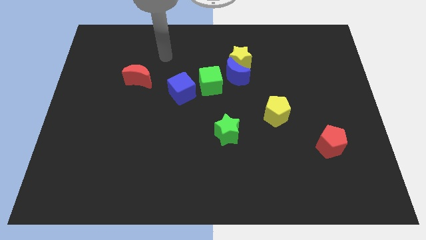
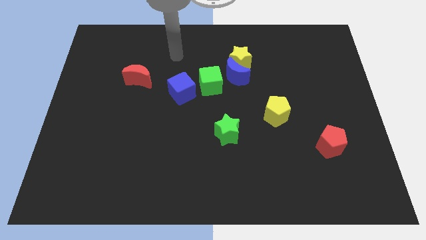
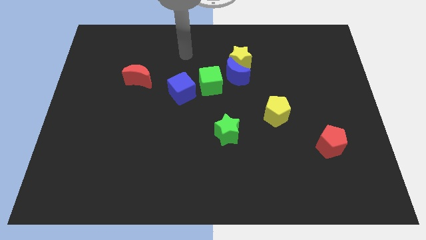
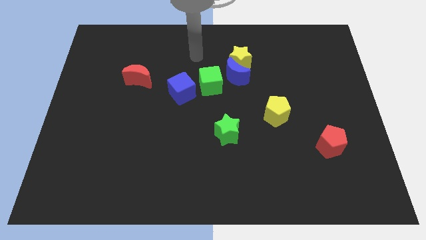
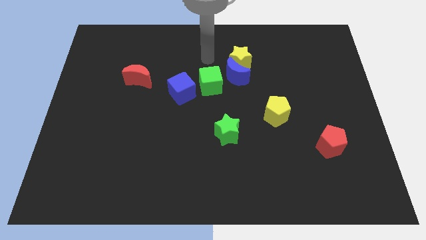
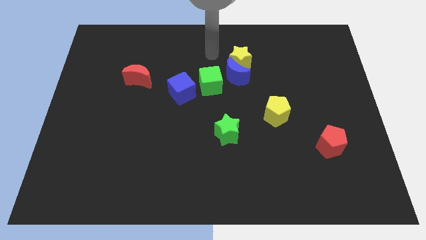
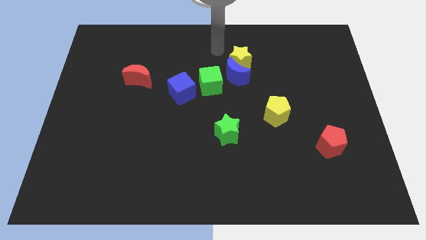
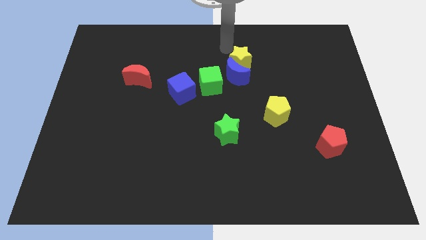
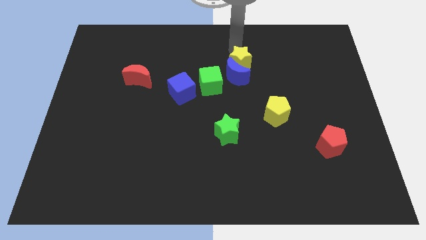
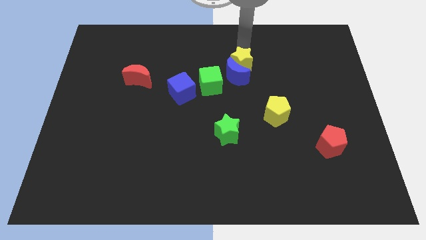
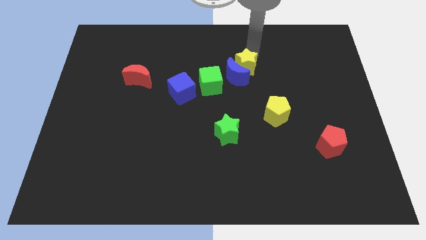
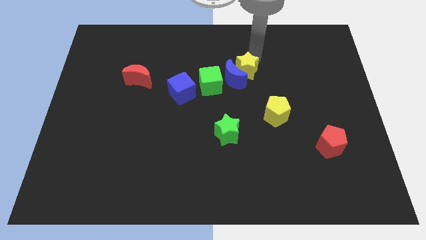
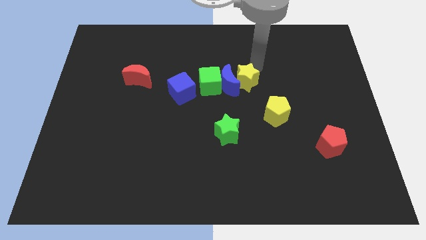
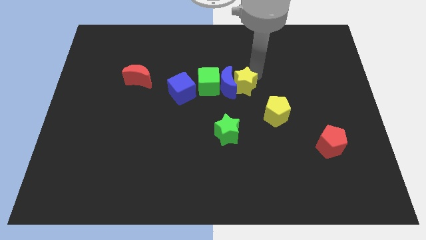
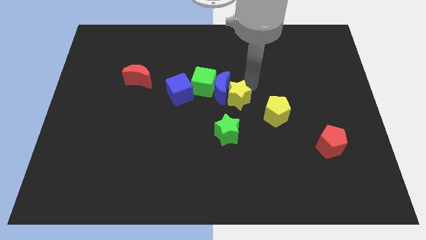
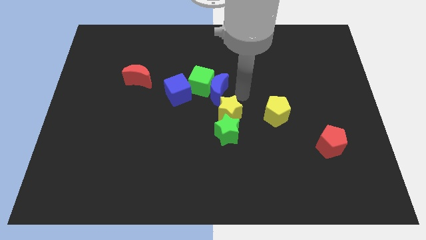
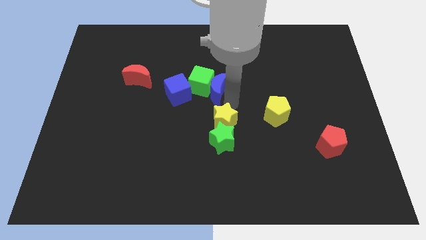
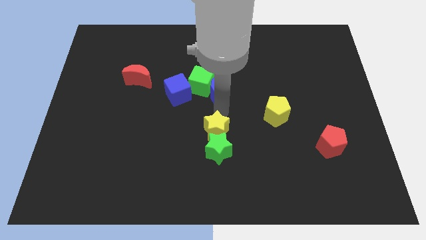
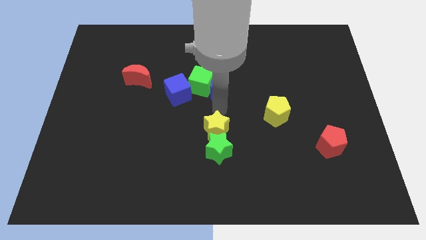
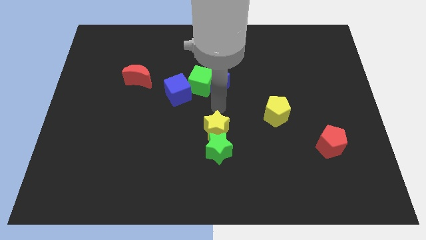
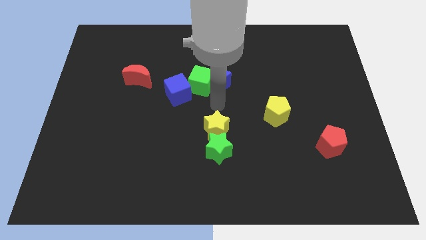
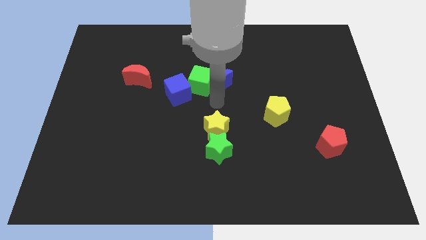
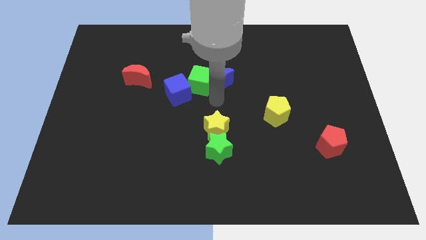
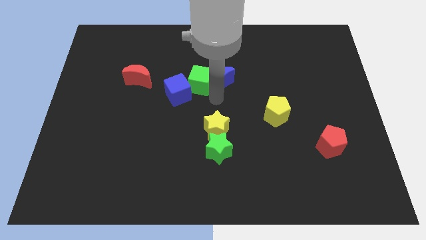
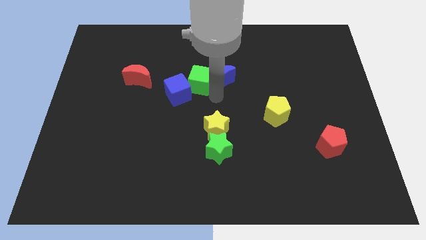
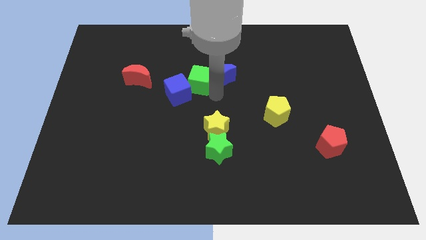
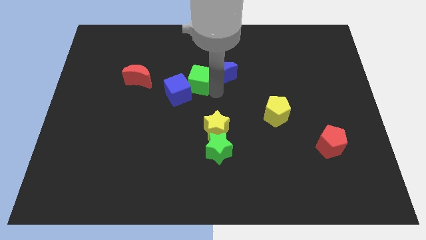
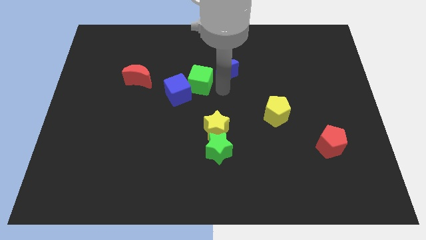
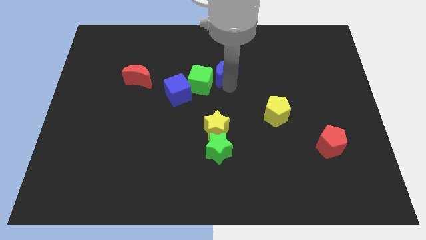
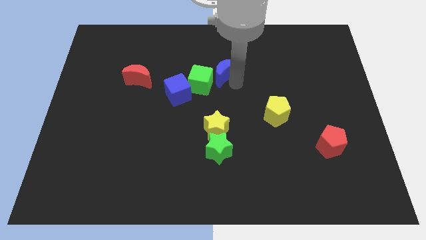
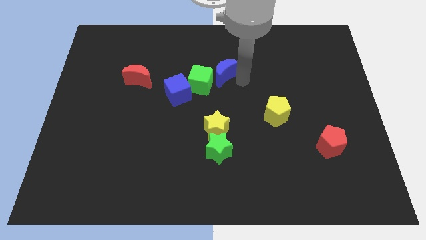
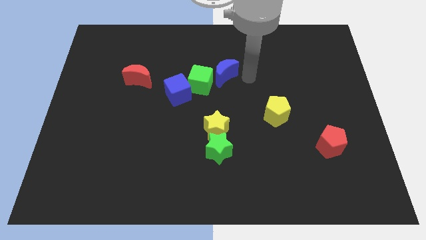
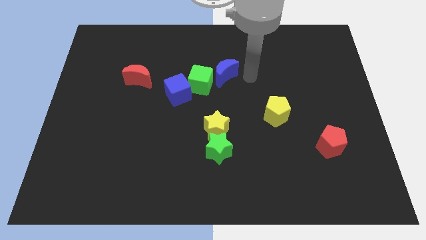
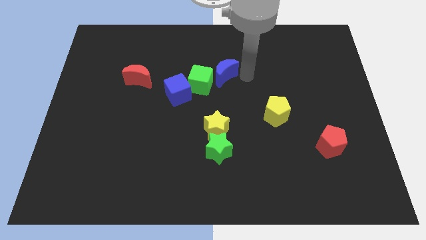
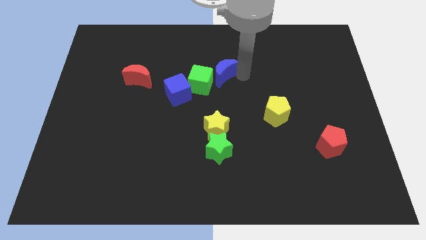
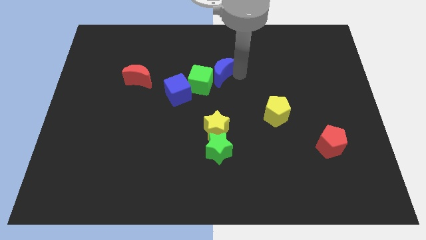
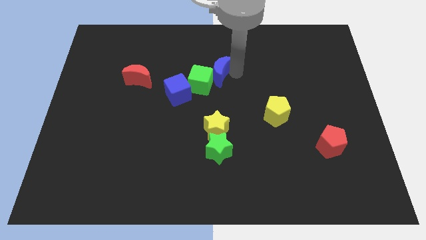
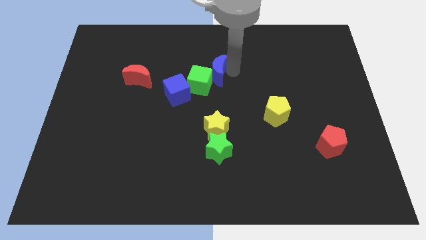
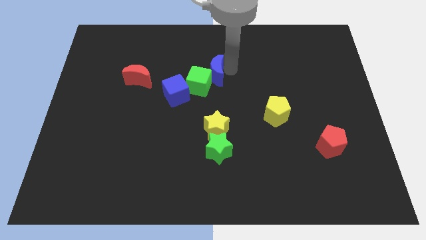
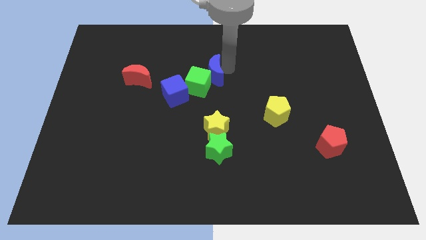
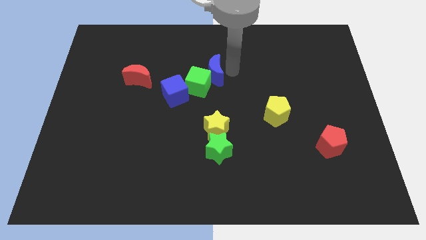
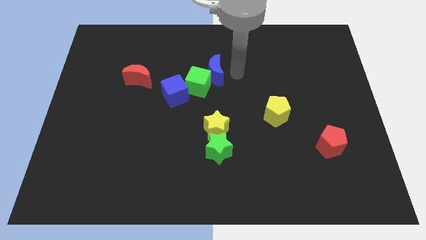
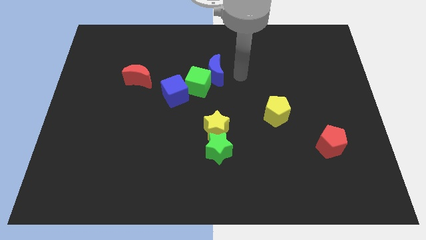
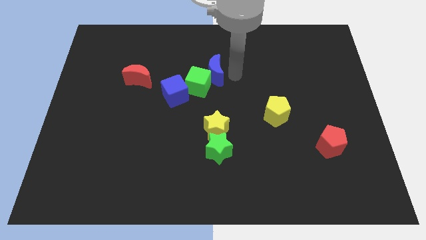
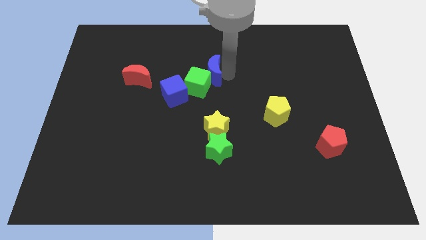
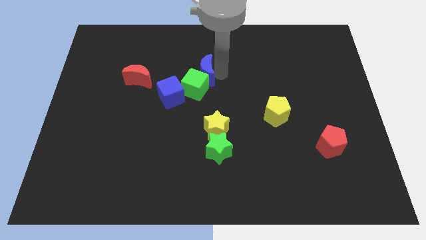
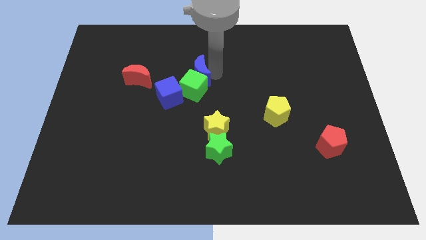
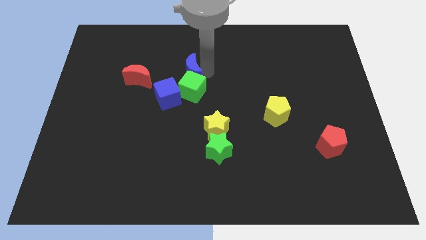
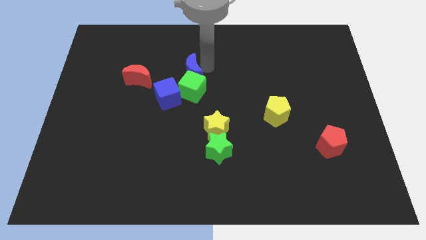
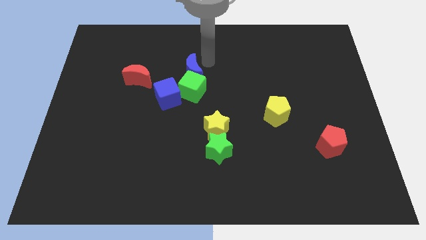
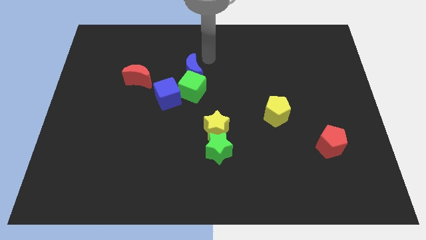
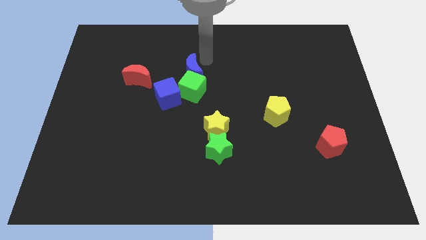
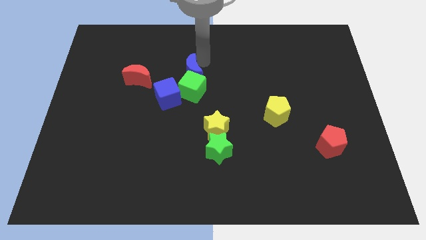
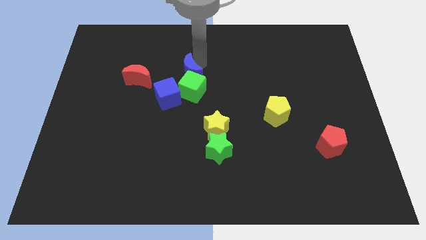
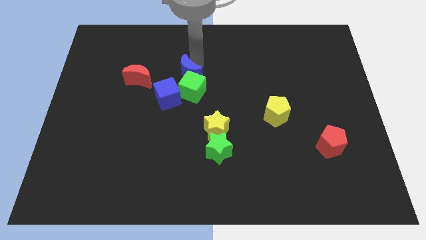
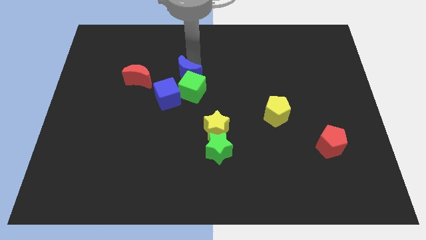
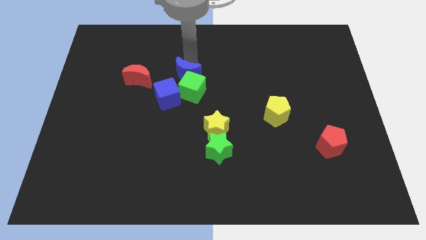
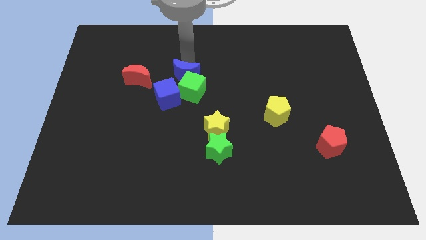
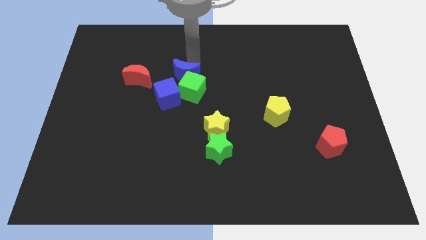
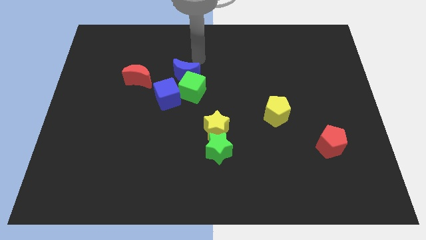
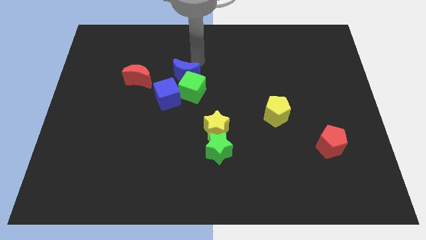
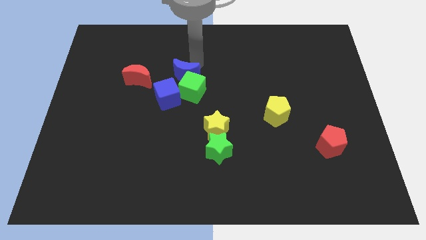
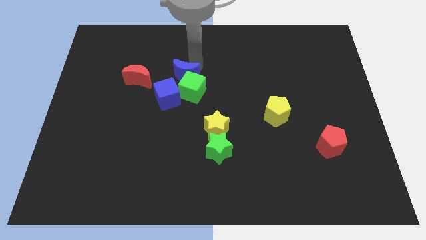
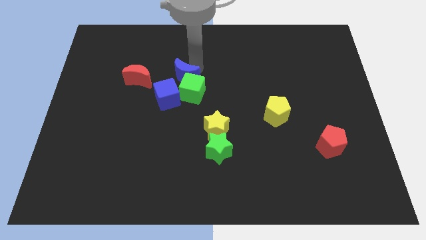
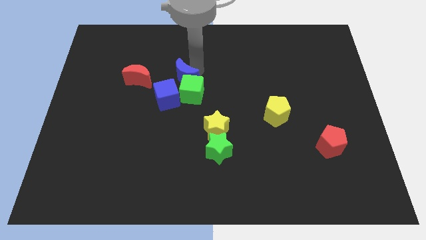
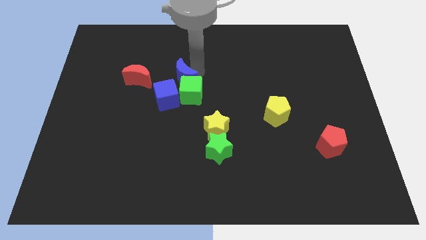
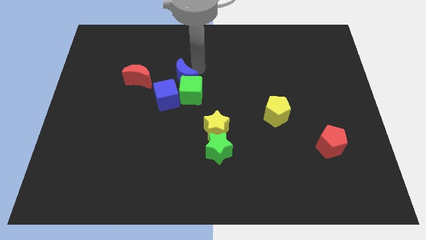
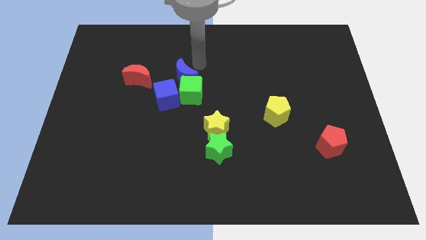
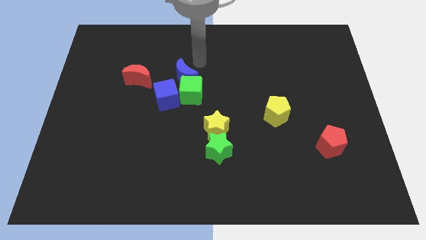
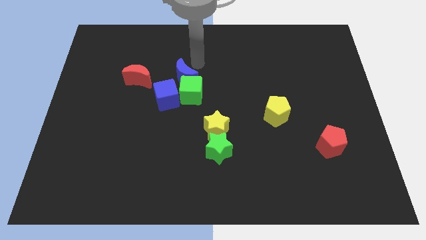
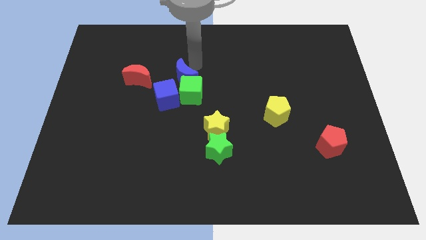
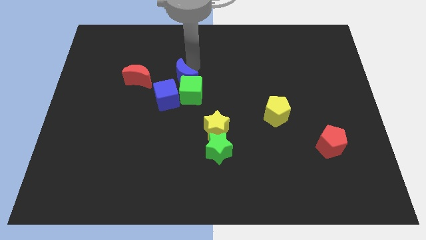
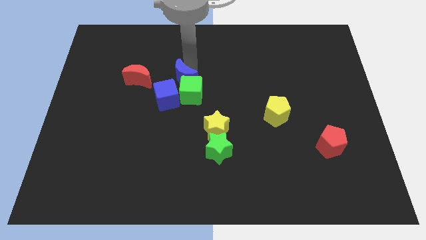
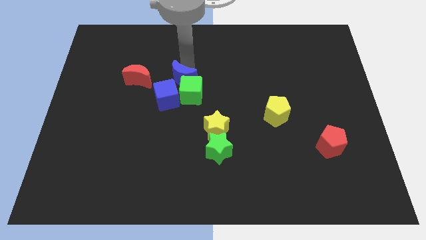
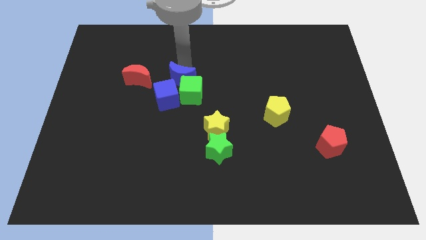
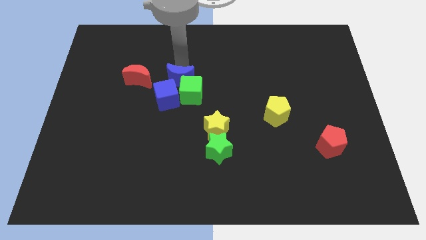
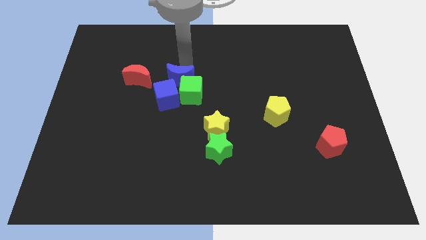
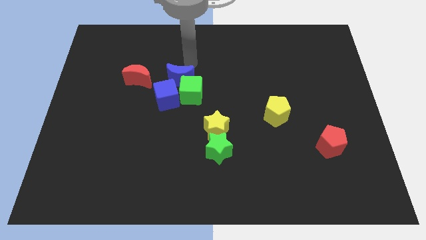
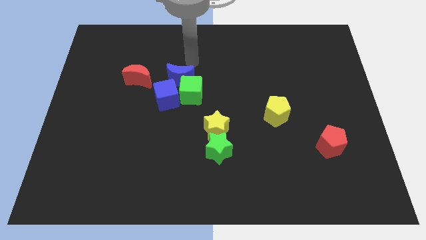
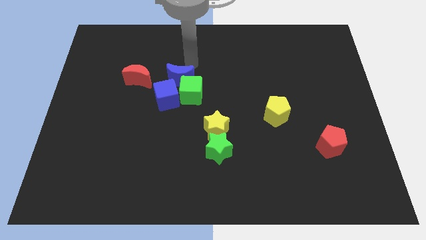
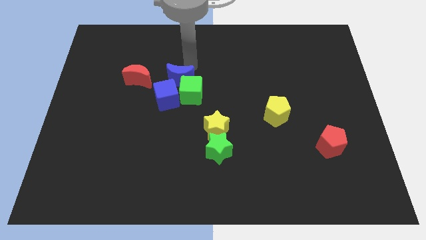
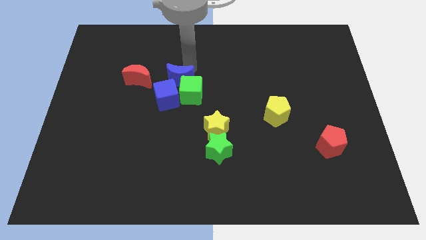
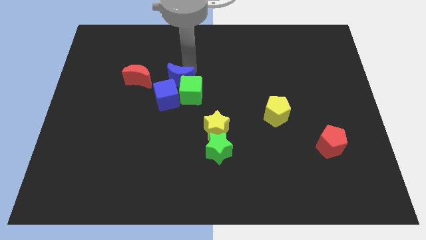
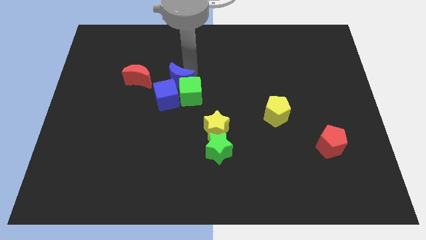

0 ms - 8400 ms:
slide the blue moon close to the blue cube
